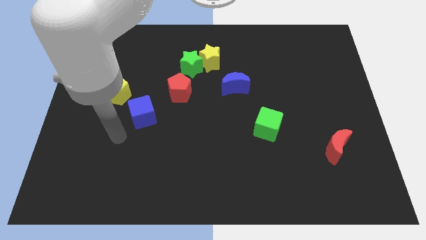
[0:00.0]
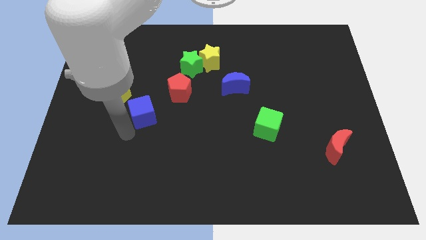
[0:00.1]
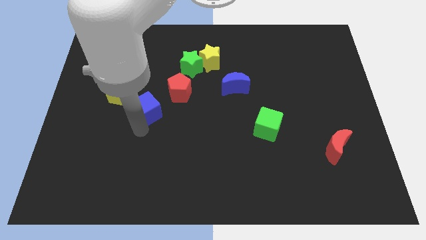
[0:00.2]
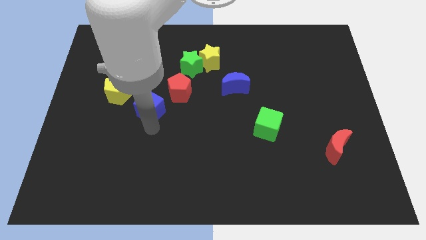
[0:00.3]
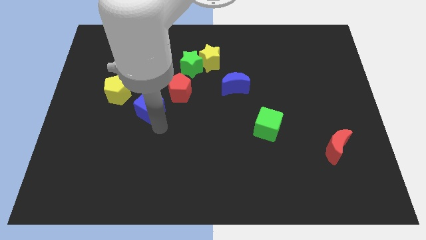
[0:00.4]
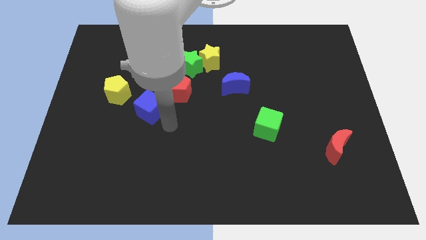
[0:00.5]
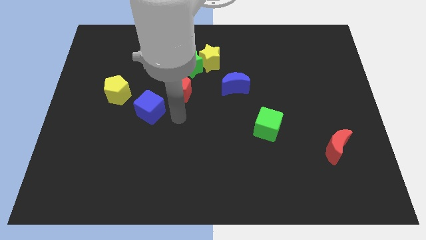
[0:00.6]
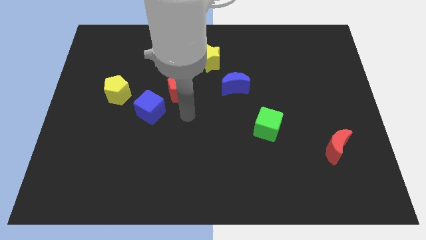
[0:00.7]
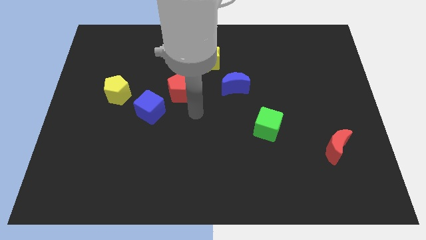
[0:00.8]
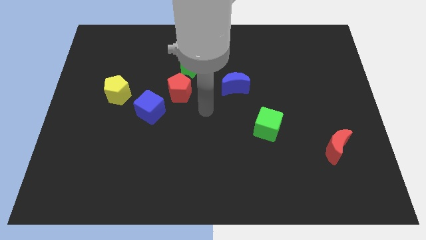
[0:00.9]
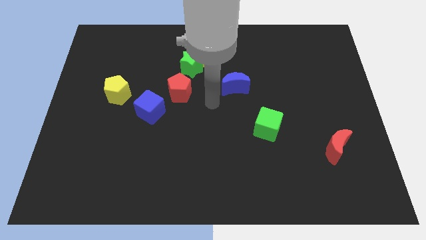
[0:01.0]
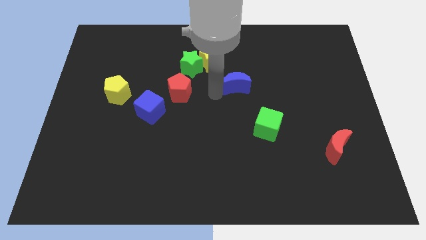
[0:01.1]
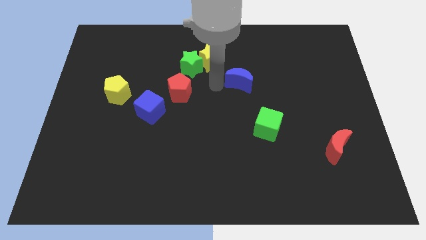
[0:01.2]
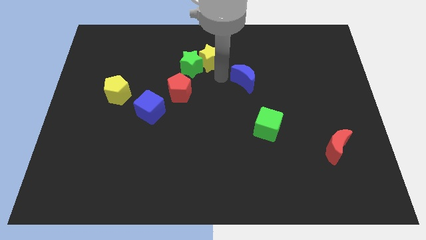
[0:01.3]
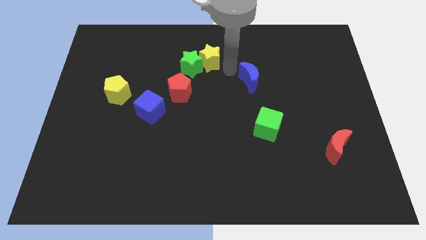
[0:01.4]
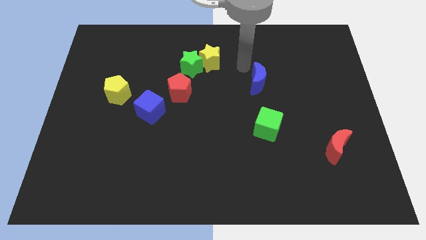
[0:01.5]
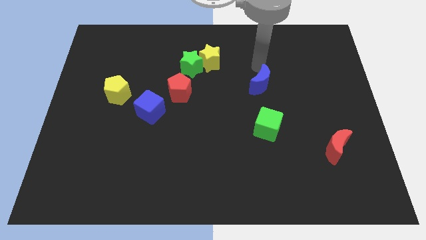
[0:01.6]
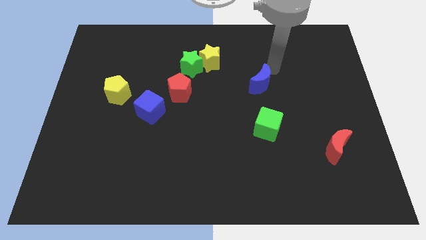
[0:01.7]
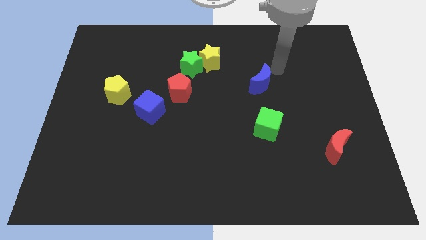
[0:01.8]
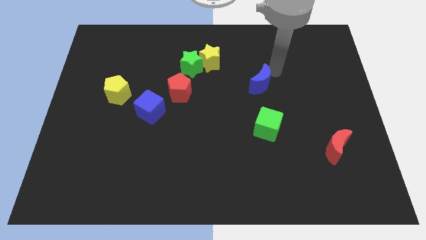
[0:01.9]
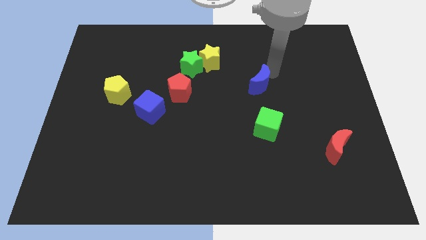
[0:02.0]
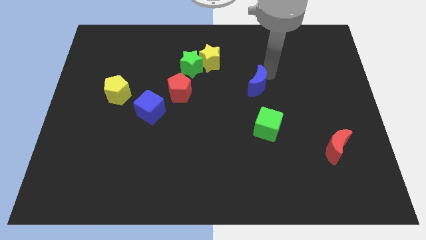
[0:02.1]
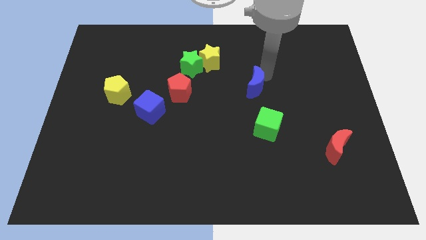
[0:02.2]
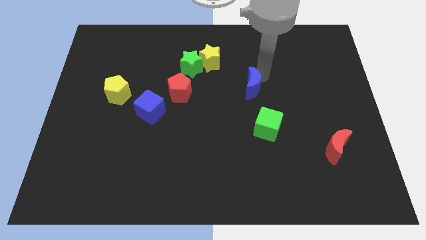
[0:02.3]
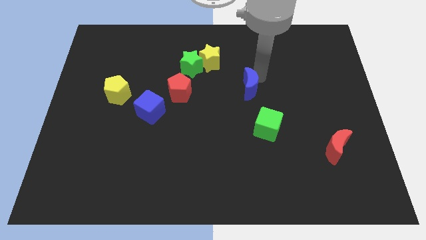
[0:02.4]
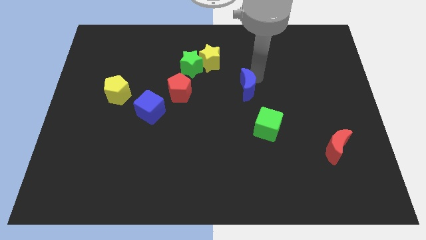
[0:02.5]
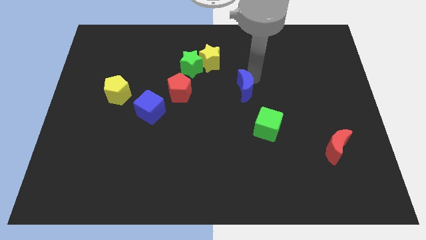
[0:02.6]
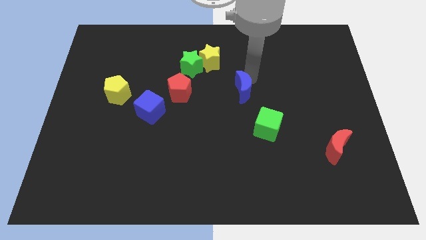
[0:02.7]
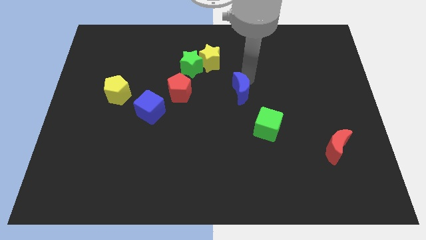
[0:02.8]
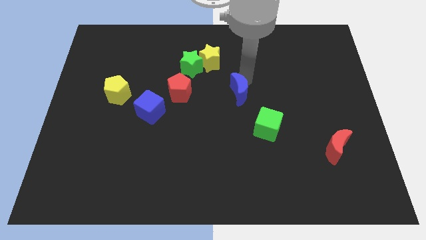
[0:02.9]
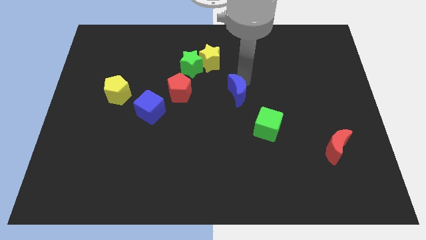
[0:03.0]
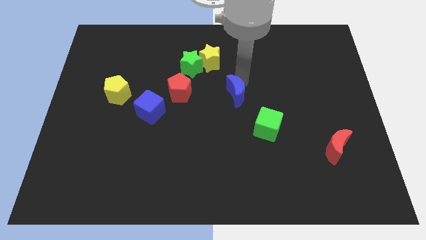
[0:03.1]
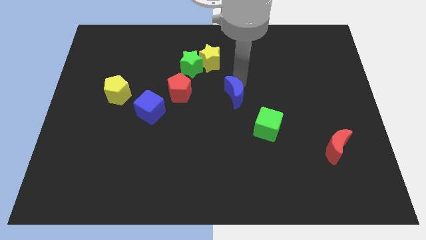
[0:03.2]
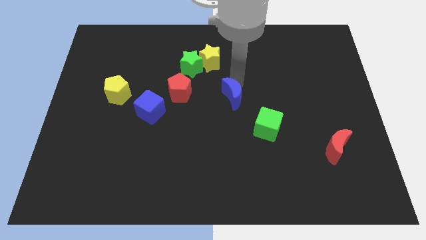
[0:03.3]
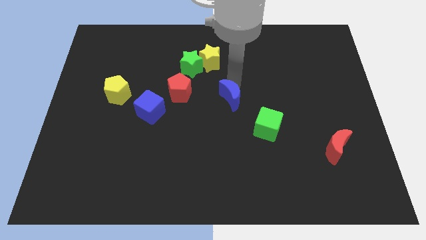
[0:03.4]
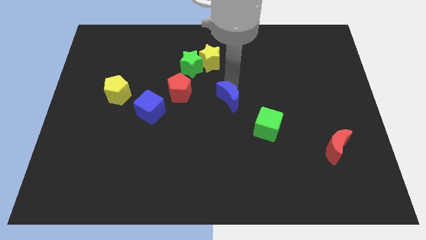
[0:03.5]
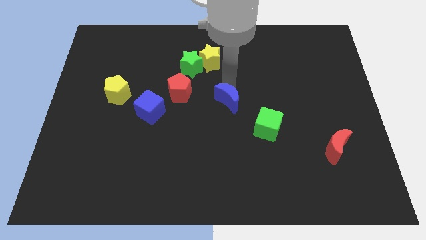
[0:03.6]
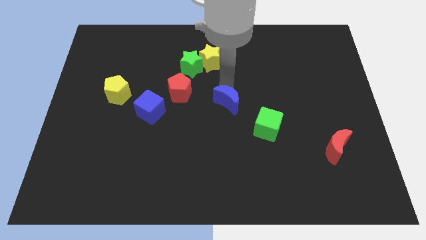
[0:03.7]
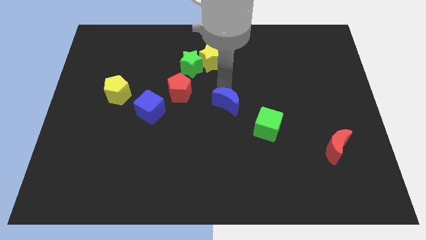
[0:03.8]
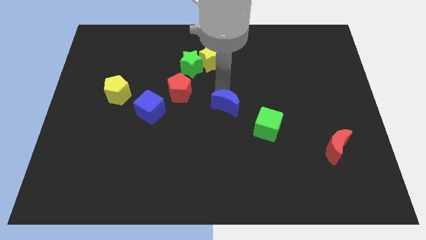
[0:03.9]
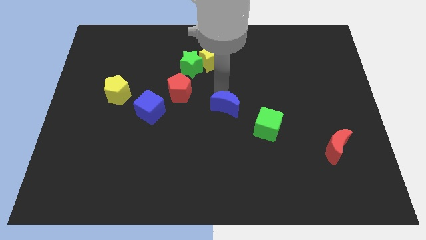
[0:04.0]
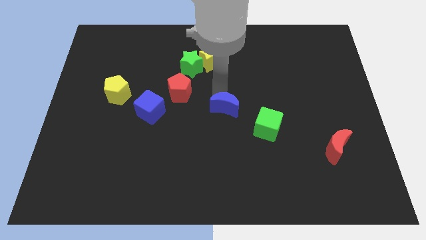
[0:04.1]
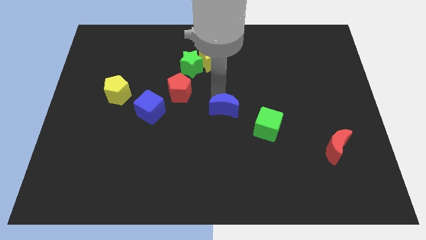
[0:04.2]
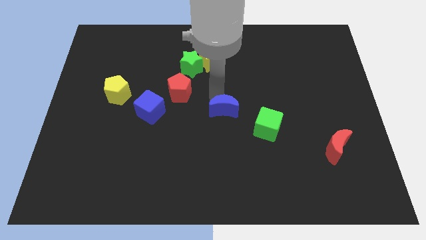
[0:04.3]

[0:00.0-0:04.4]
slide the blue moon downwards a little

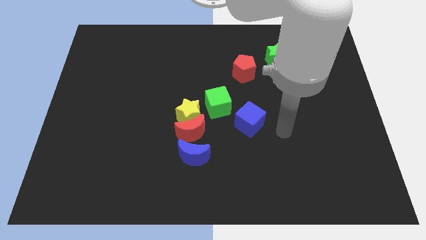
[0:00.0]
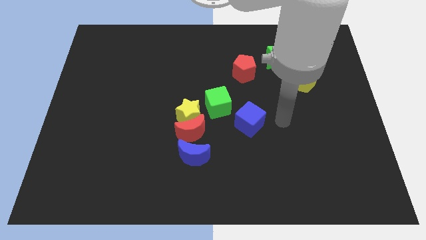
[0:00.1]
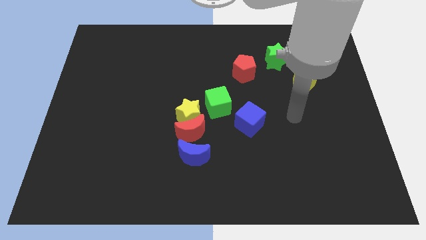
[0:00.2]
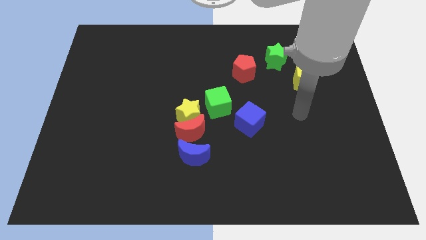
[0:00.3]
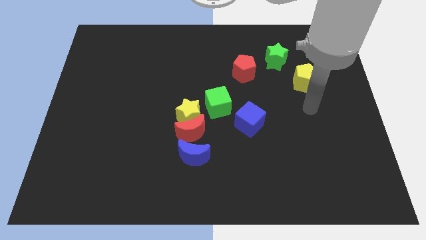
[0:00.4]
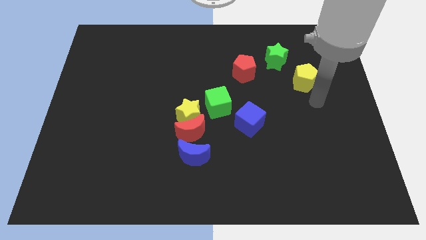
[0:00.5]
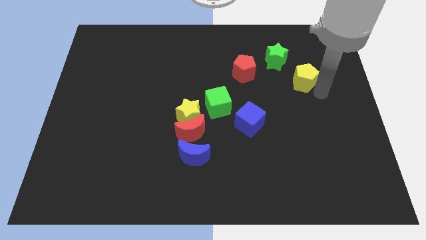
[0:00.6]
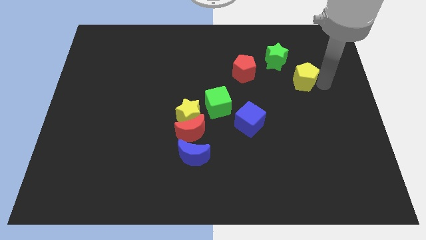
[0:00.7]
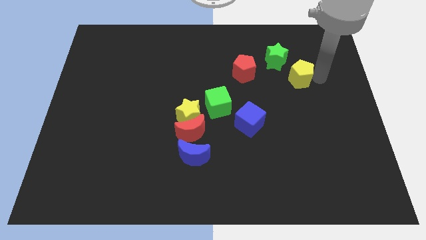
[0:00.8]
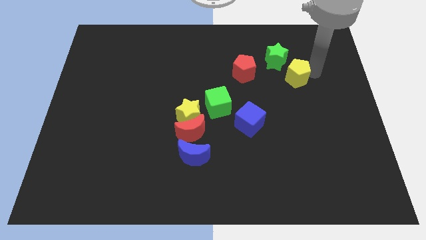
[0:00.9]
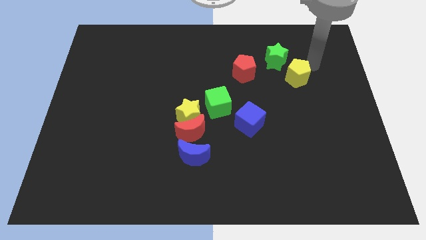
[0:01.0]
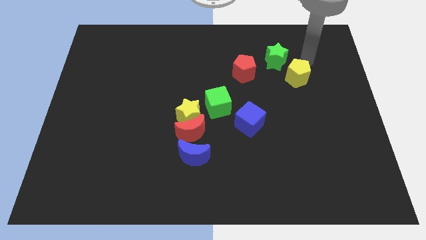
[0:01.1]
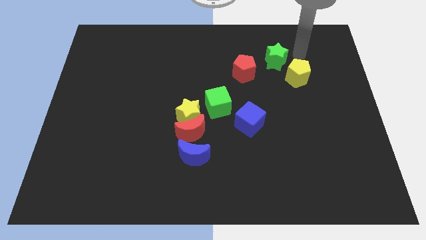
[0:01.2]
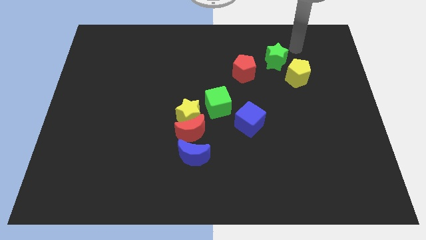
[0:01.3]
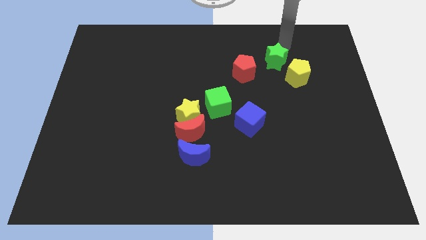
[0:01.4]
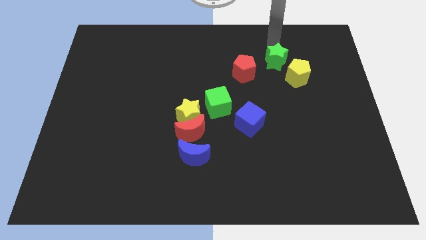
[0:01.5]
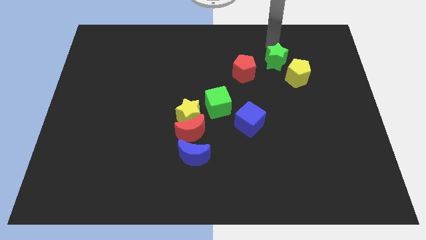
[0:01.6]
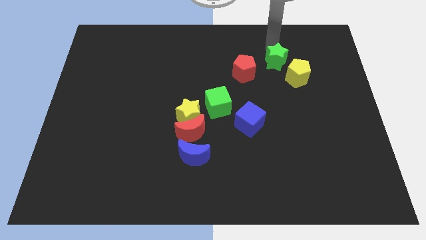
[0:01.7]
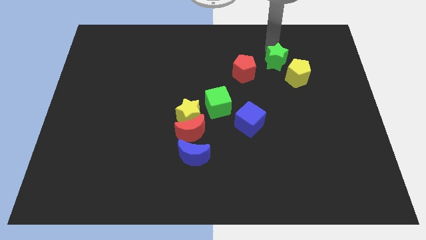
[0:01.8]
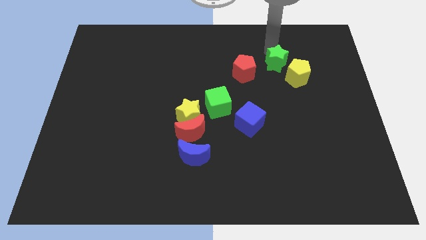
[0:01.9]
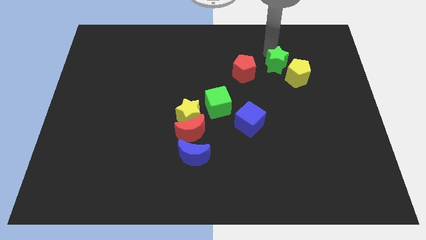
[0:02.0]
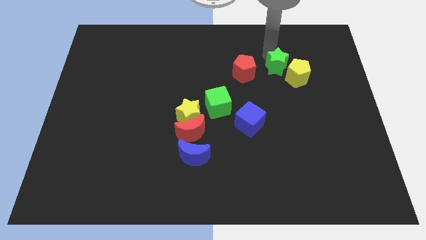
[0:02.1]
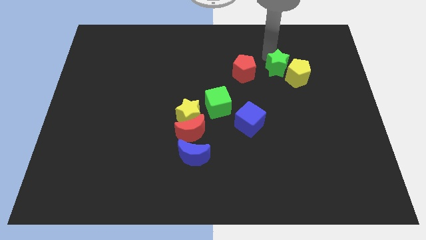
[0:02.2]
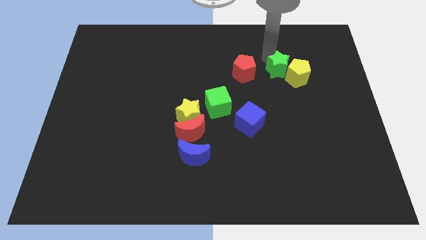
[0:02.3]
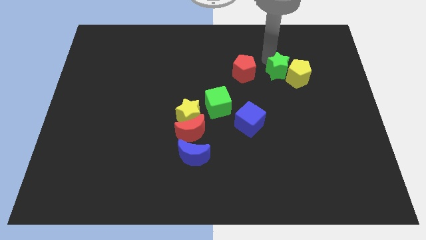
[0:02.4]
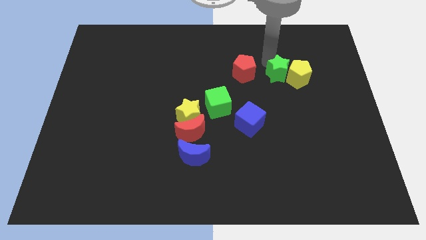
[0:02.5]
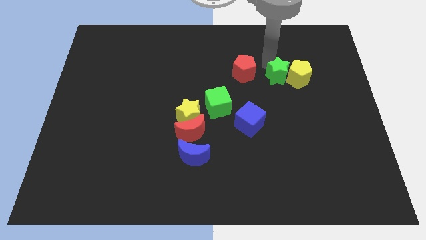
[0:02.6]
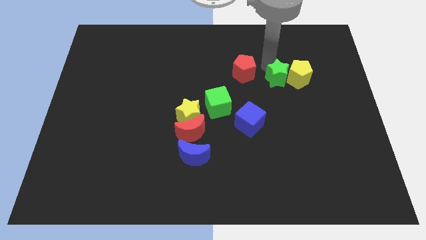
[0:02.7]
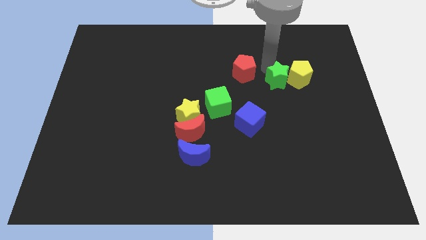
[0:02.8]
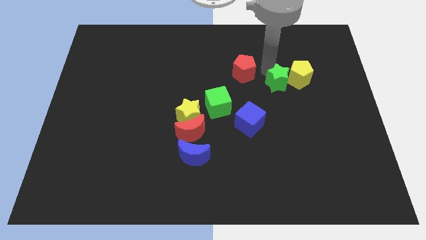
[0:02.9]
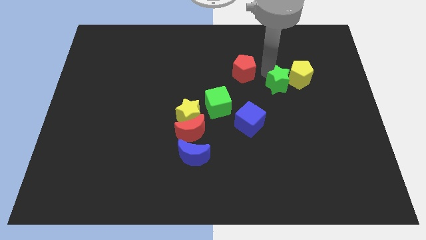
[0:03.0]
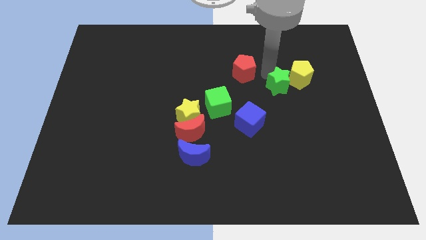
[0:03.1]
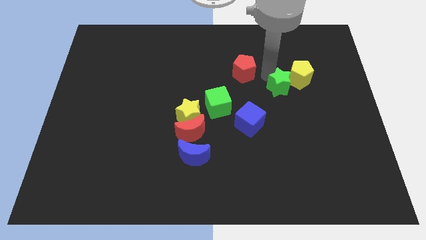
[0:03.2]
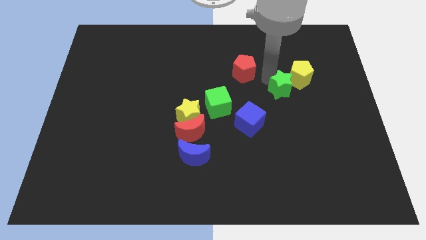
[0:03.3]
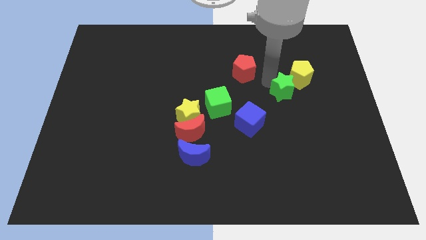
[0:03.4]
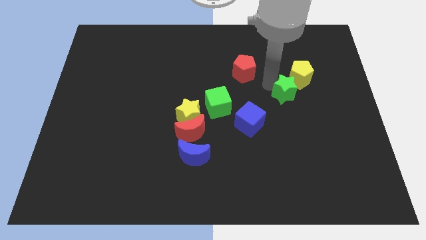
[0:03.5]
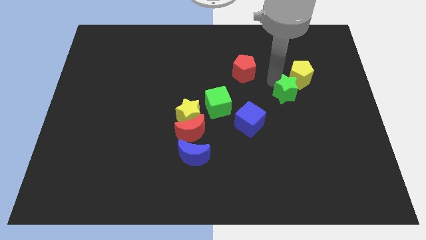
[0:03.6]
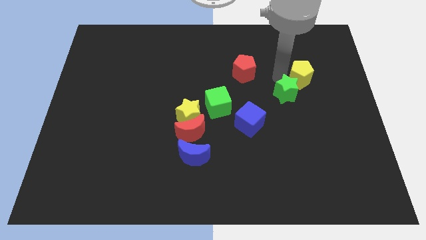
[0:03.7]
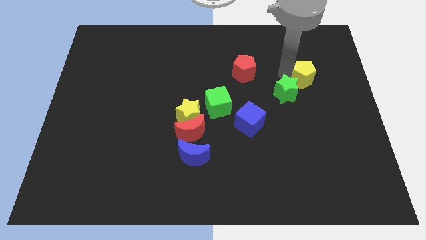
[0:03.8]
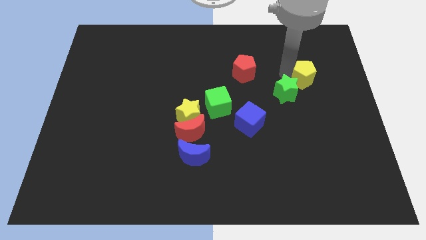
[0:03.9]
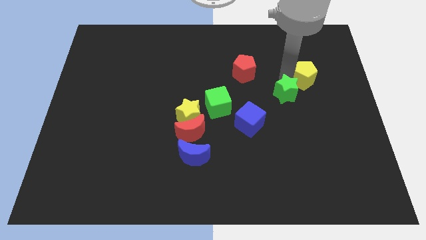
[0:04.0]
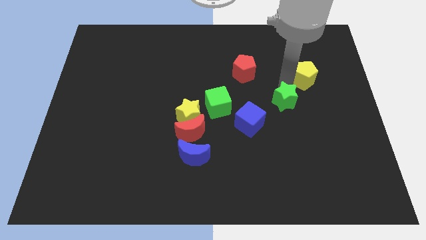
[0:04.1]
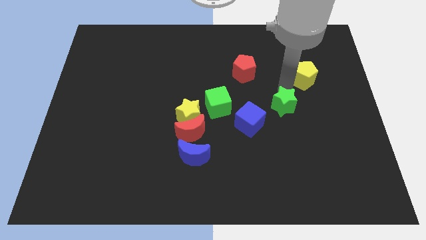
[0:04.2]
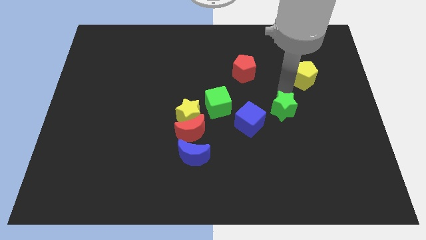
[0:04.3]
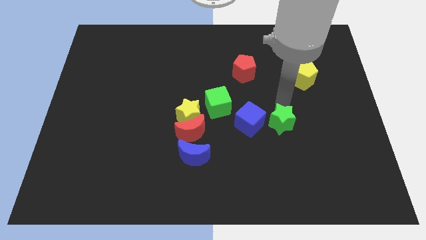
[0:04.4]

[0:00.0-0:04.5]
move the green star down
